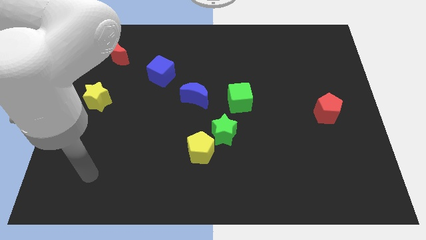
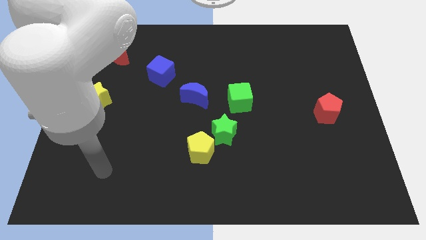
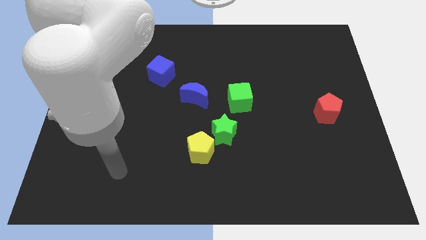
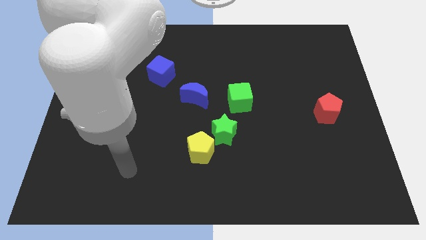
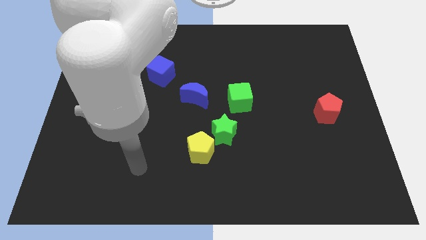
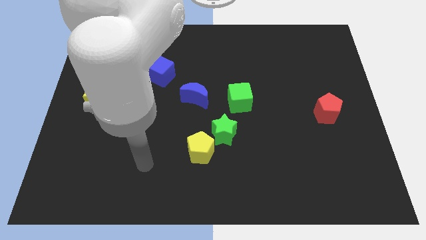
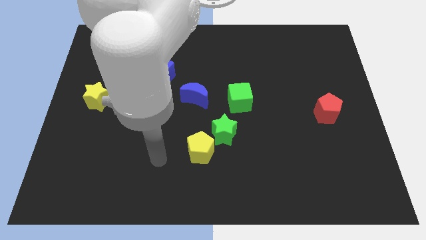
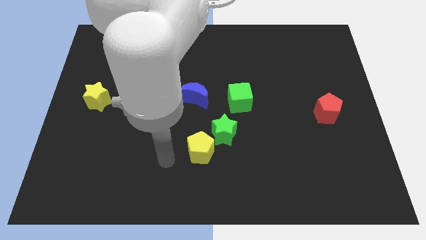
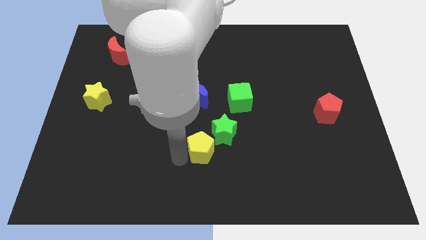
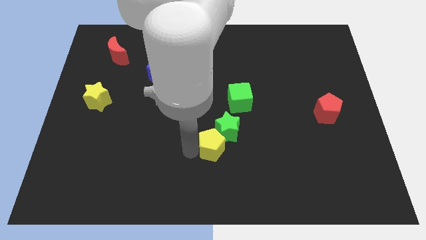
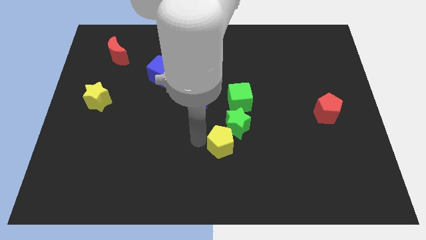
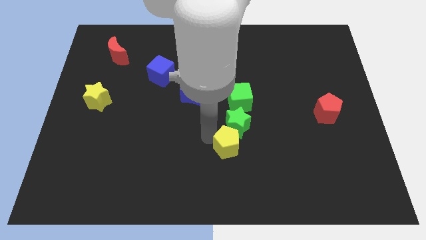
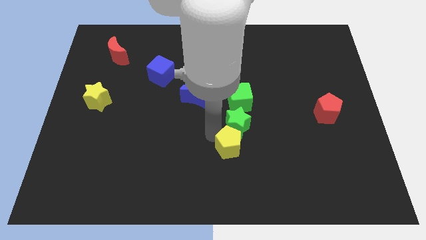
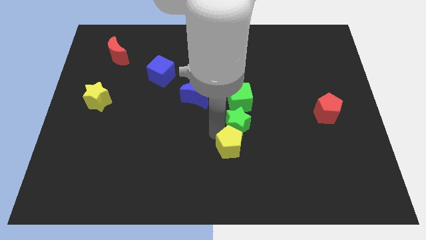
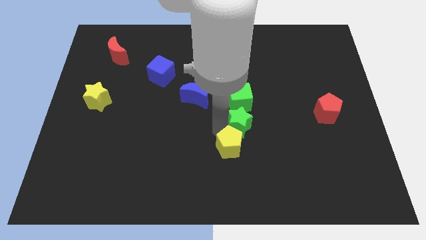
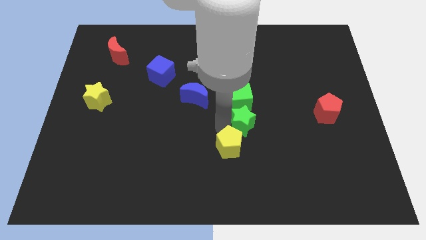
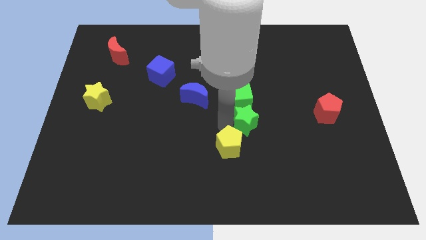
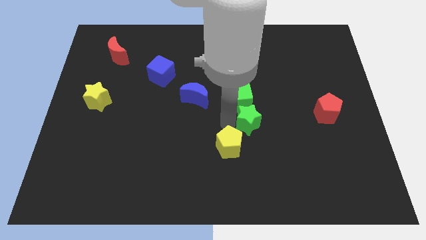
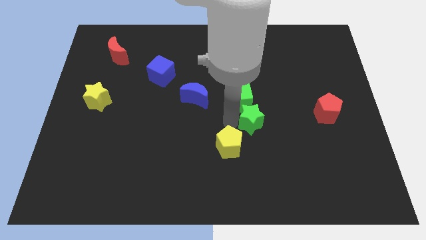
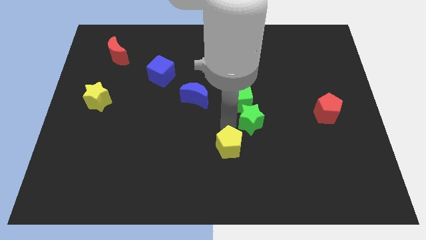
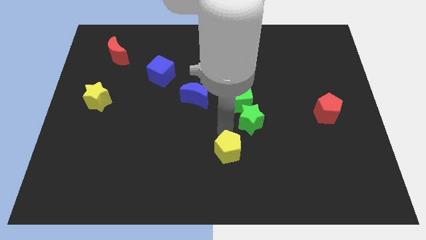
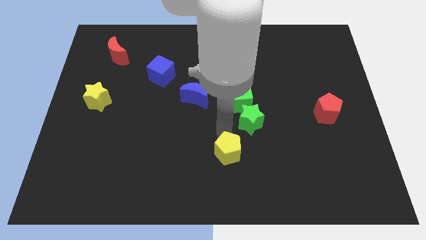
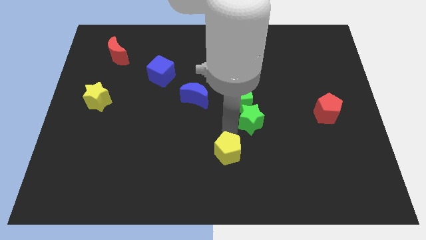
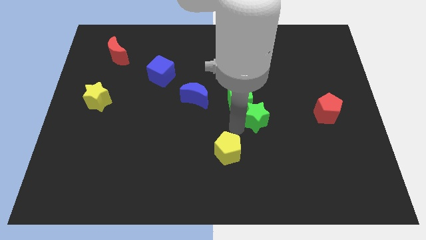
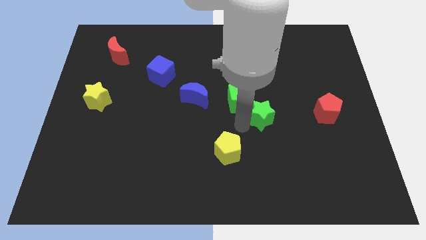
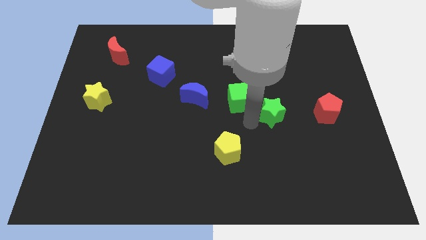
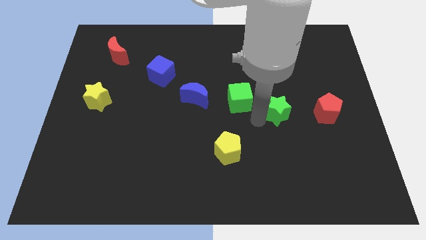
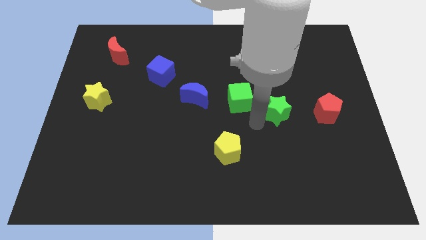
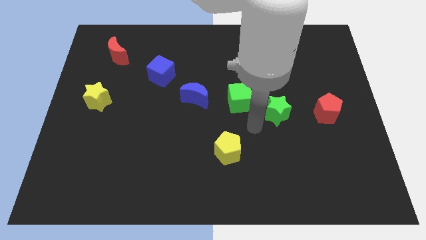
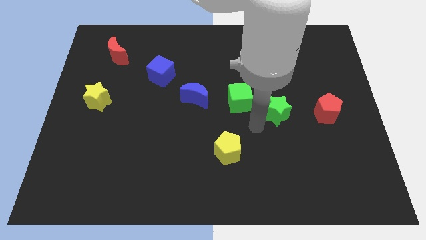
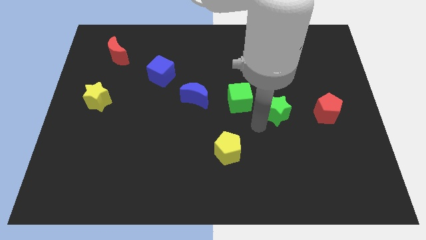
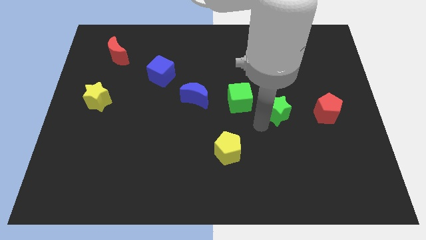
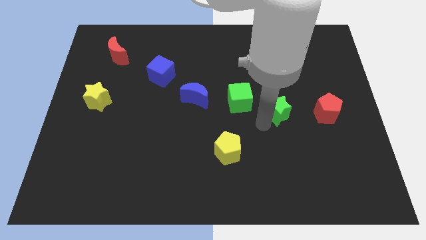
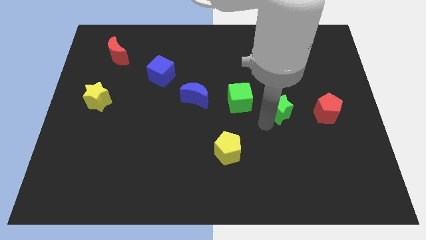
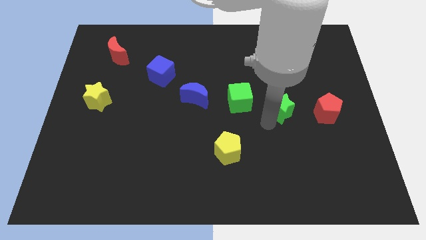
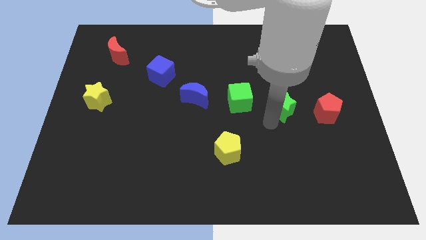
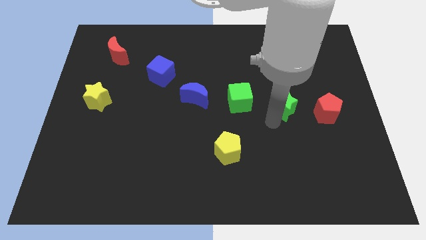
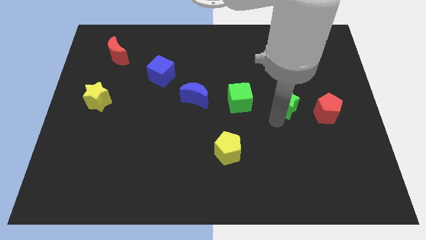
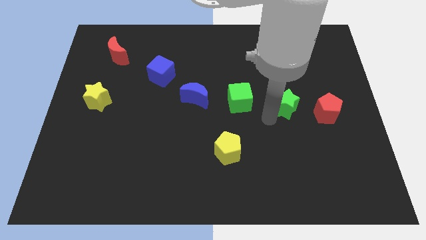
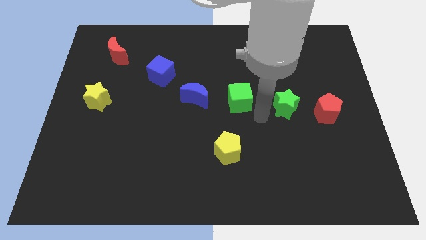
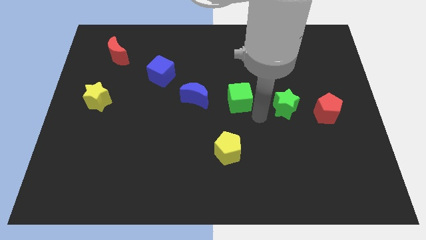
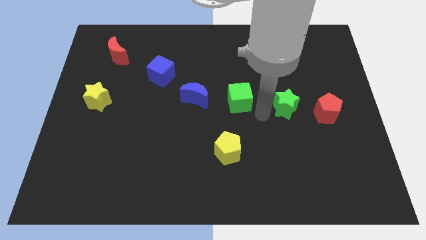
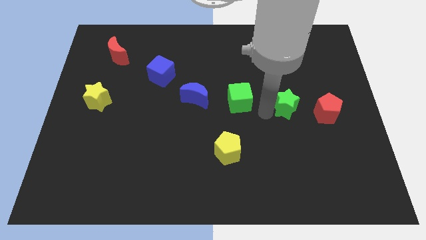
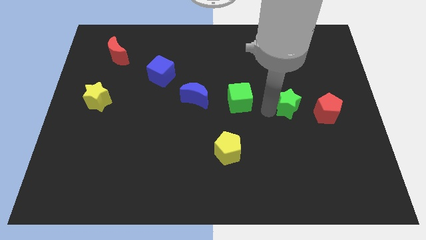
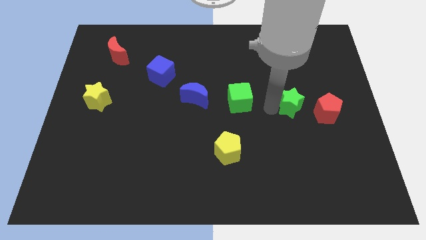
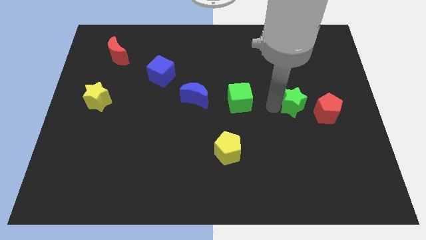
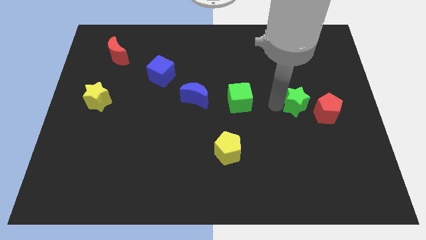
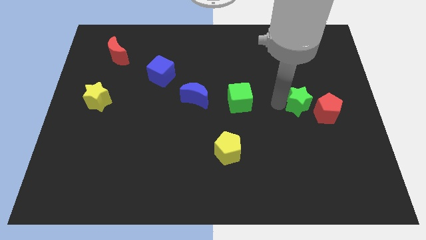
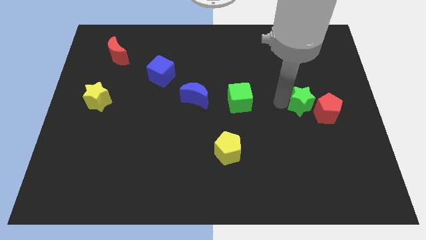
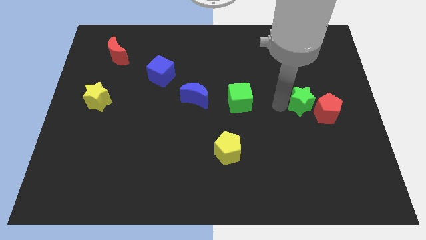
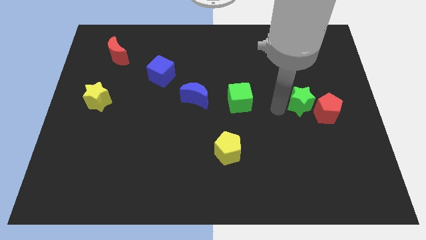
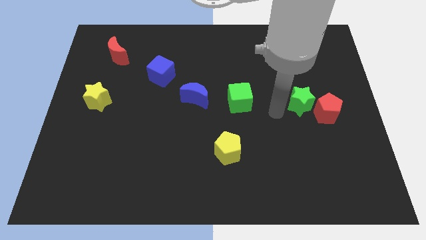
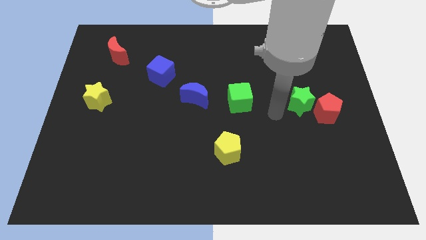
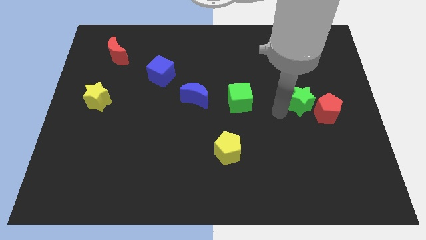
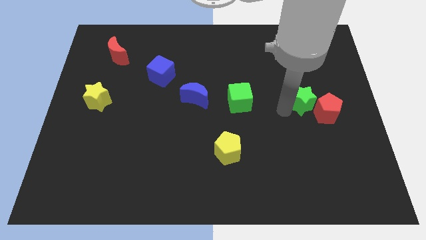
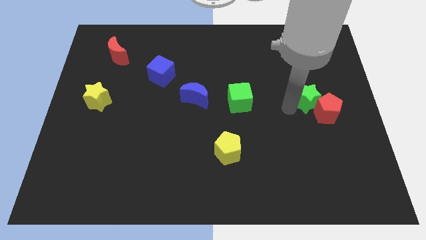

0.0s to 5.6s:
put the green star to the top of the red pentagon

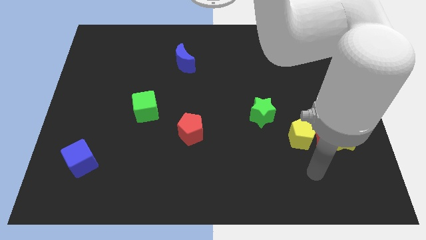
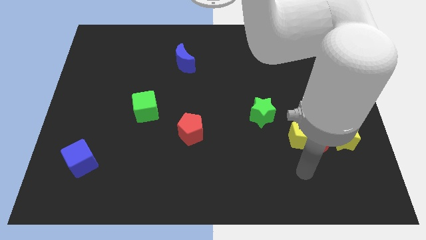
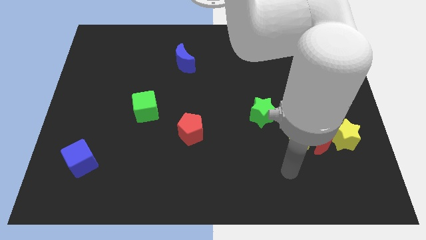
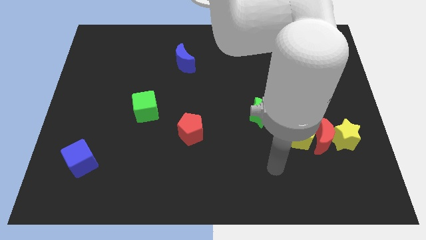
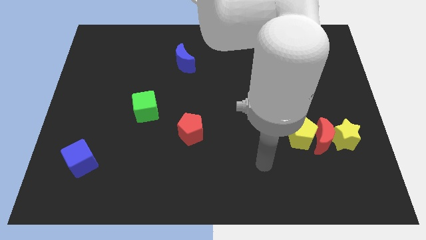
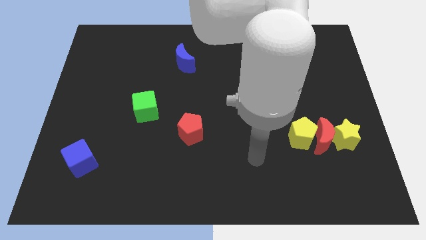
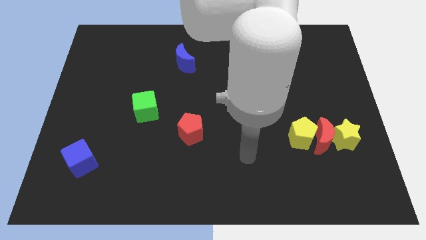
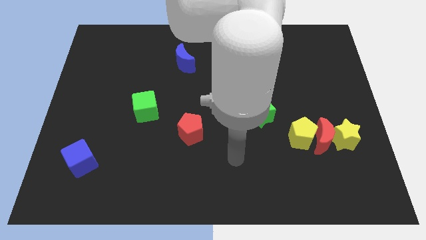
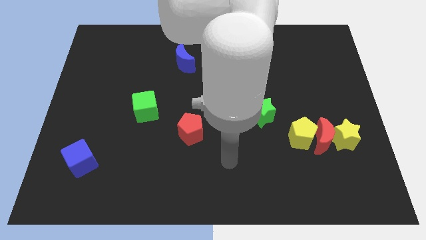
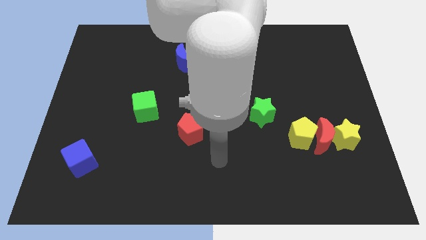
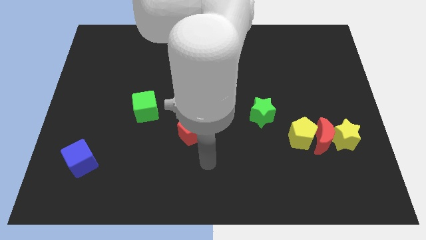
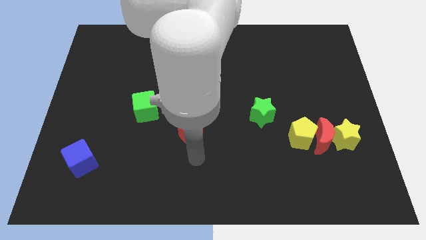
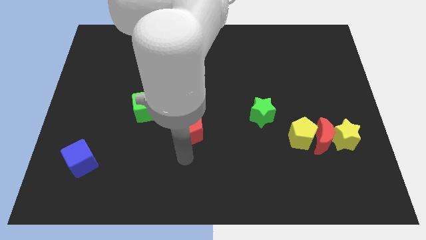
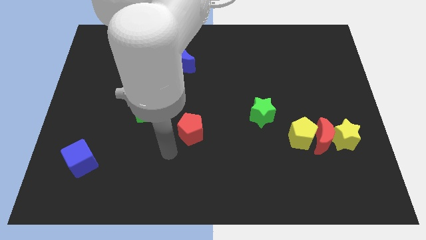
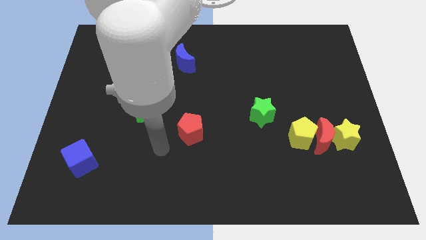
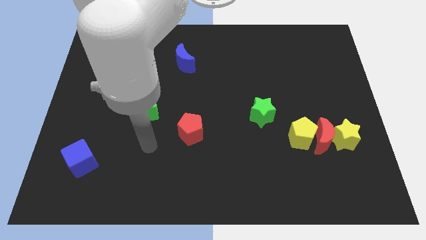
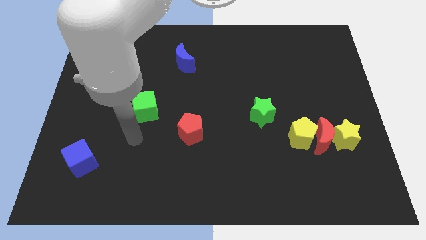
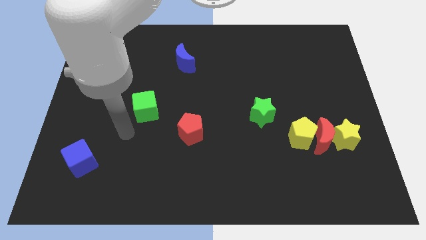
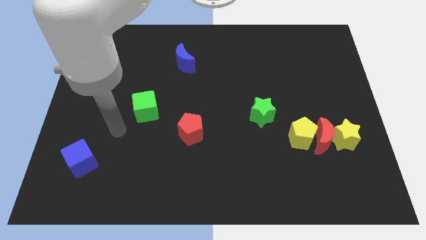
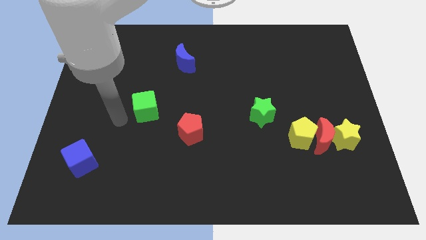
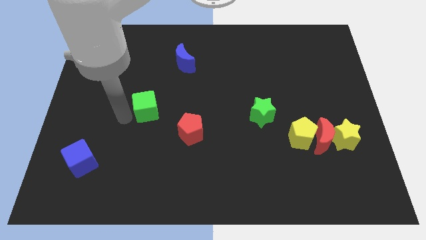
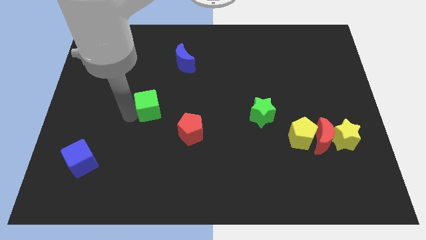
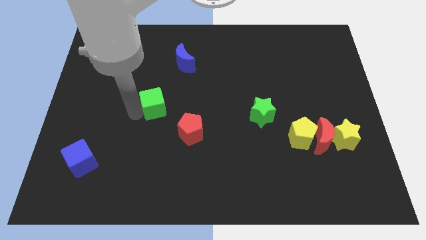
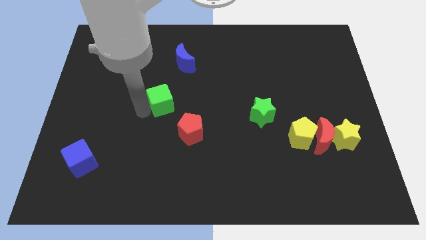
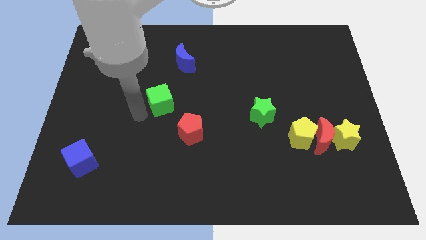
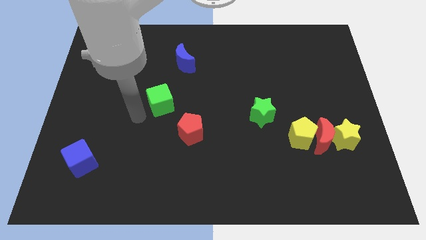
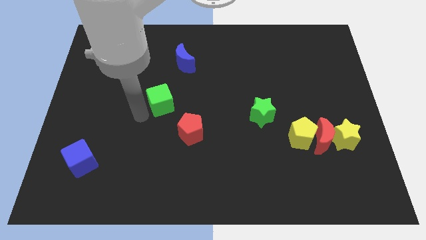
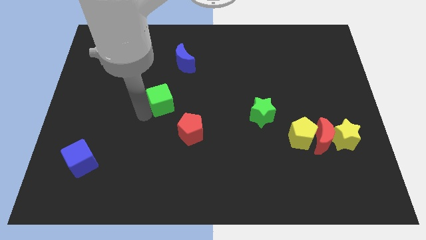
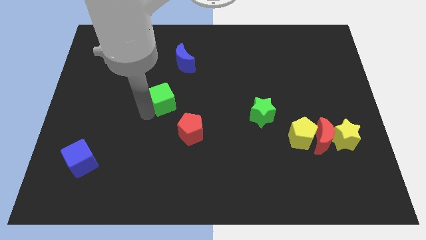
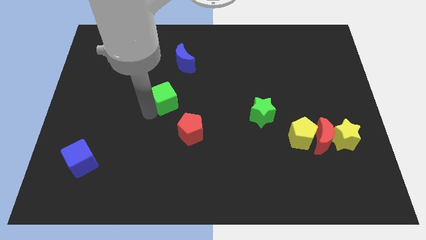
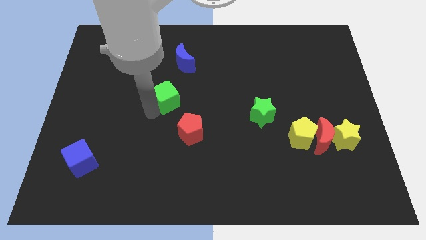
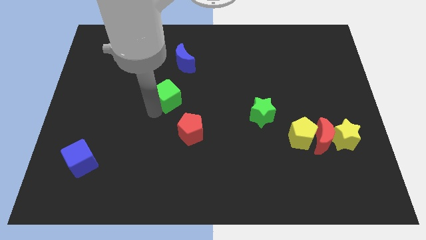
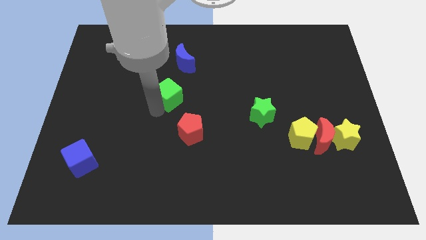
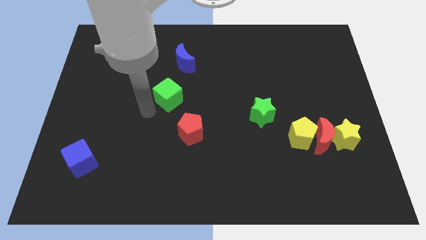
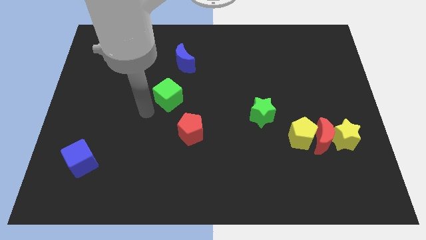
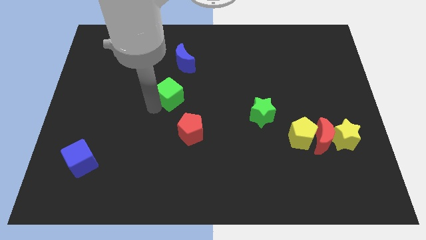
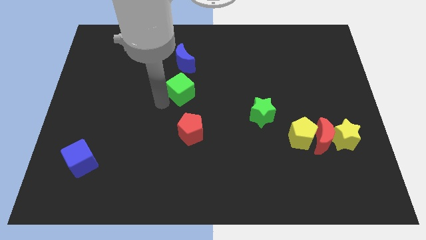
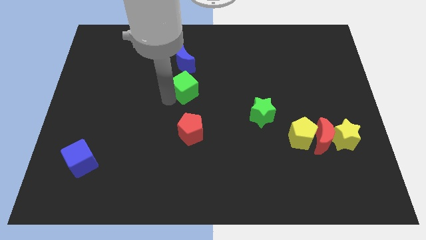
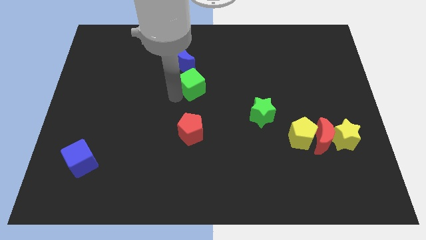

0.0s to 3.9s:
move the green cube diagonally down and to the right of the blue moon
